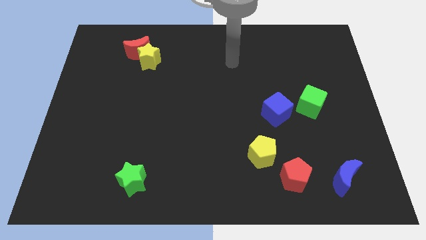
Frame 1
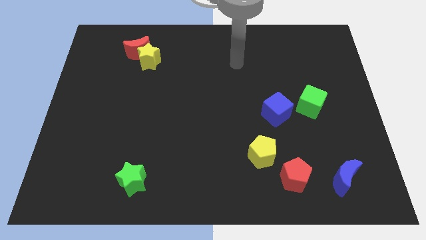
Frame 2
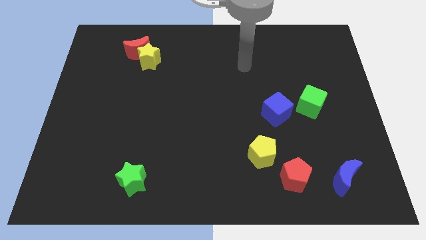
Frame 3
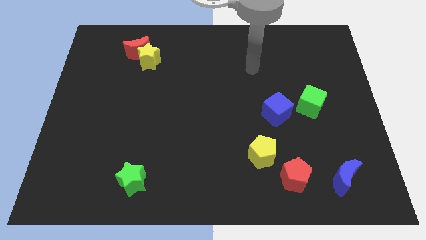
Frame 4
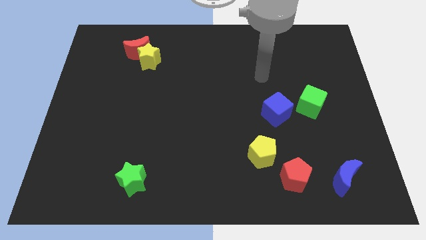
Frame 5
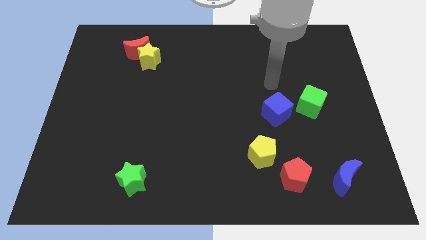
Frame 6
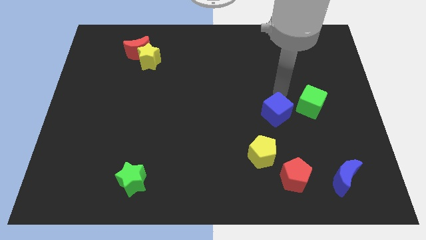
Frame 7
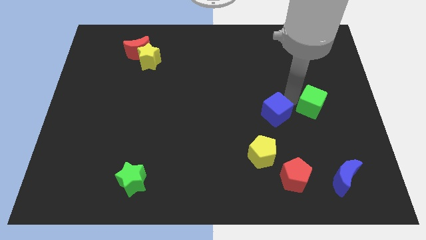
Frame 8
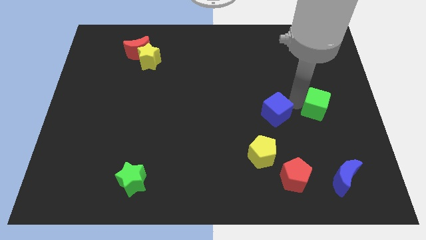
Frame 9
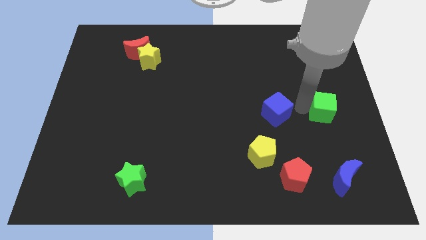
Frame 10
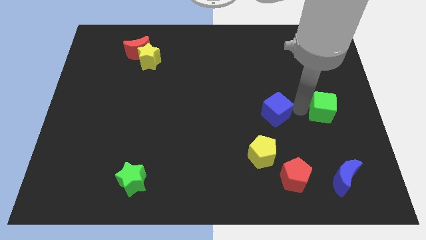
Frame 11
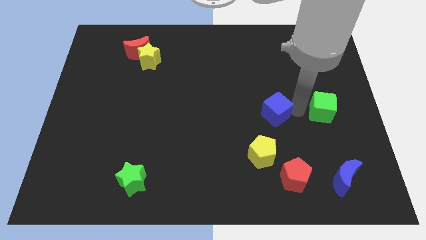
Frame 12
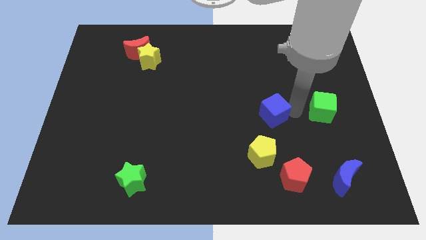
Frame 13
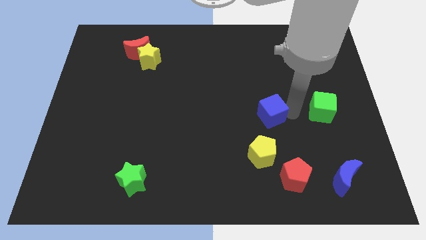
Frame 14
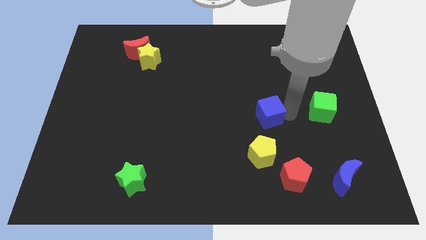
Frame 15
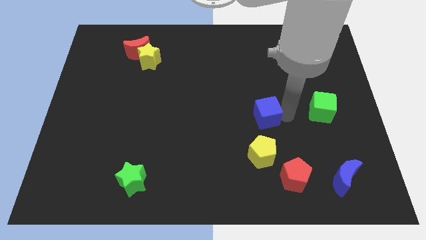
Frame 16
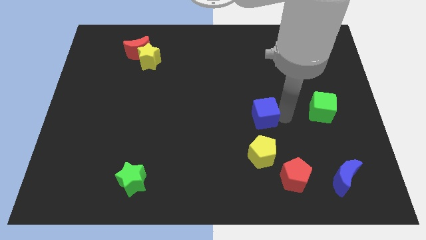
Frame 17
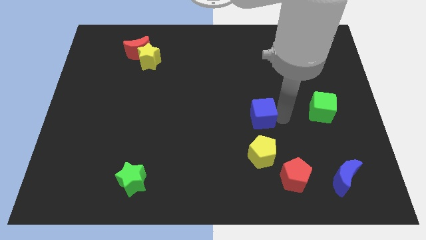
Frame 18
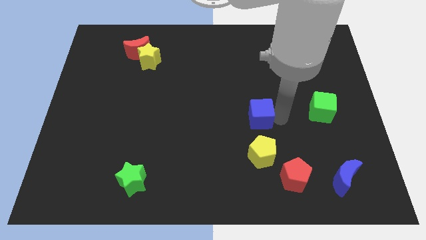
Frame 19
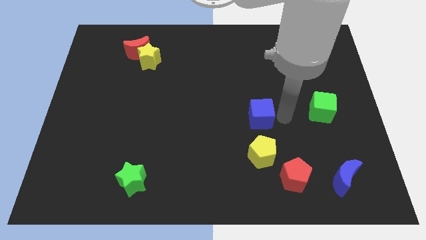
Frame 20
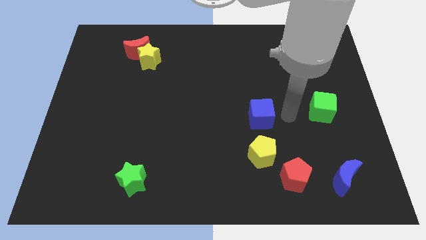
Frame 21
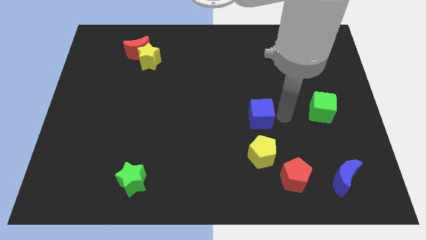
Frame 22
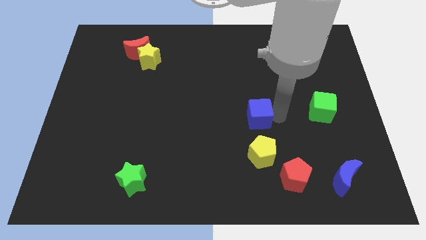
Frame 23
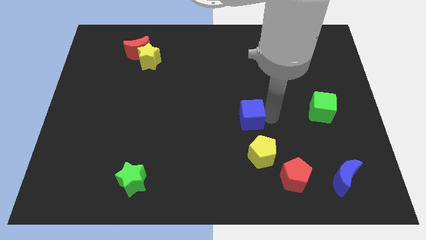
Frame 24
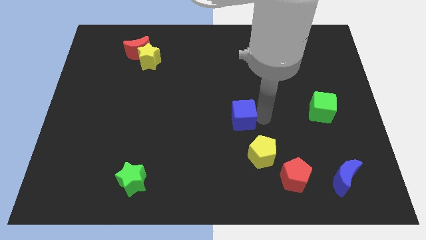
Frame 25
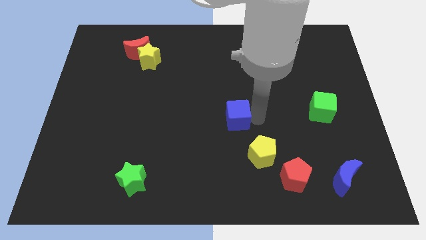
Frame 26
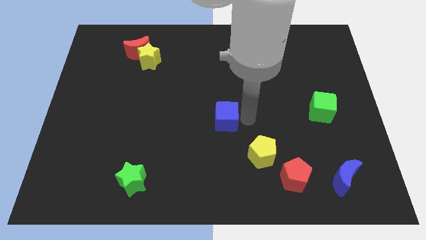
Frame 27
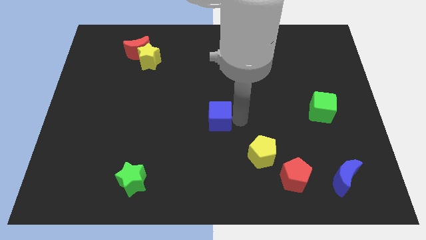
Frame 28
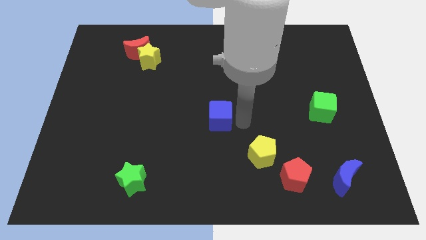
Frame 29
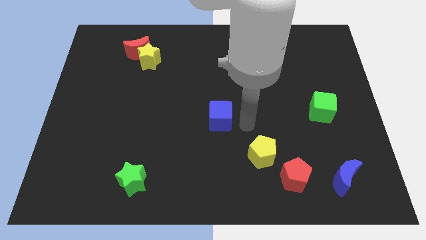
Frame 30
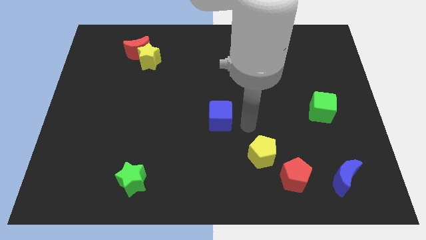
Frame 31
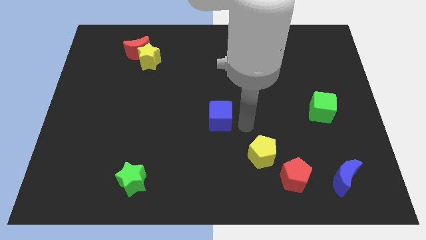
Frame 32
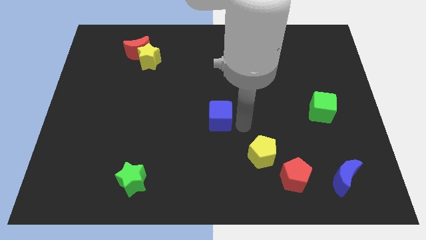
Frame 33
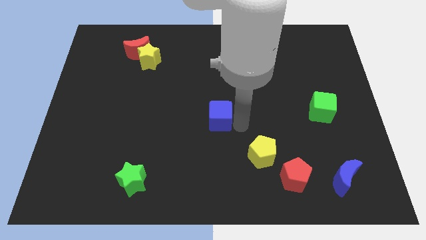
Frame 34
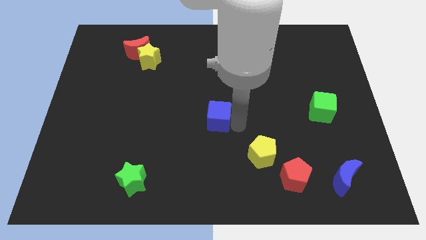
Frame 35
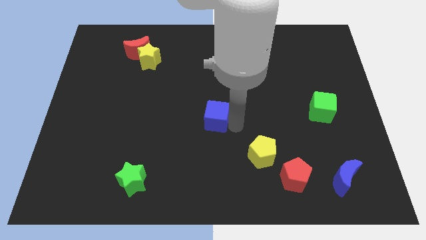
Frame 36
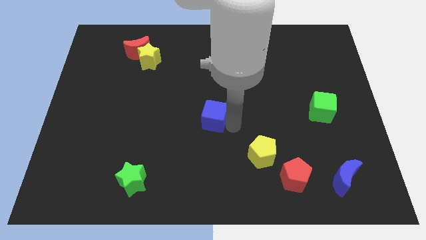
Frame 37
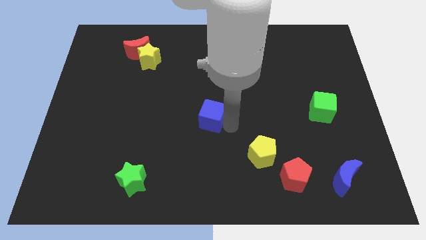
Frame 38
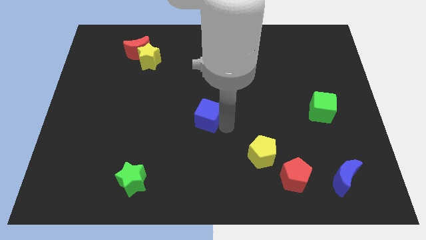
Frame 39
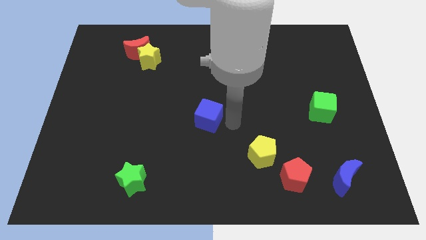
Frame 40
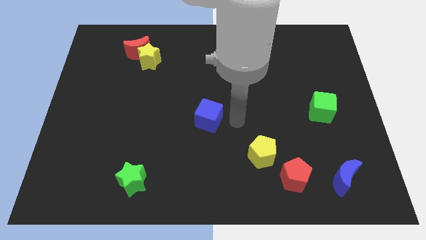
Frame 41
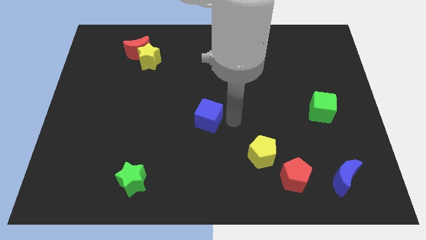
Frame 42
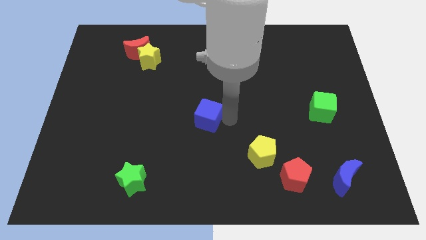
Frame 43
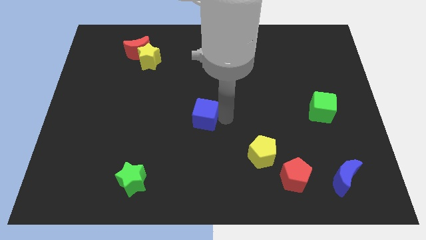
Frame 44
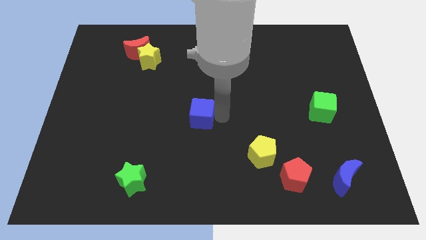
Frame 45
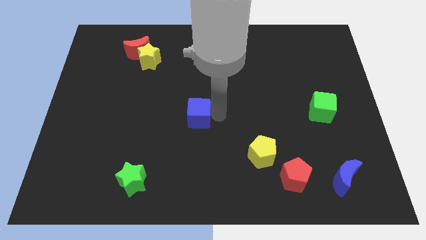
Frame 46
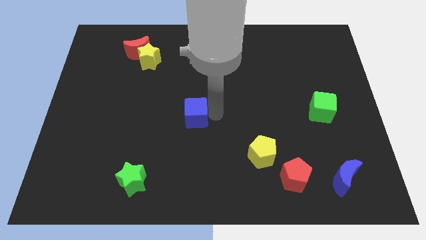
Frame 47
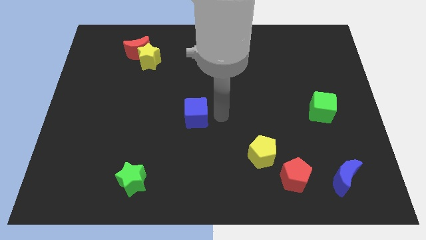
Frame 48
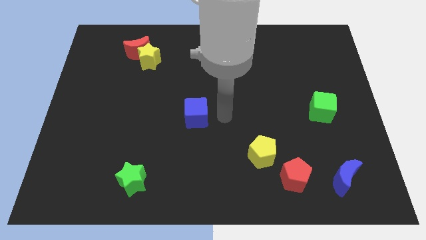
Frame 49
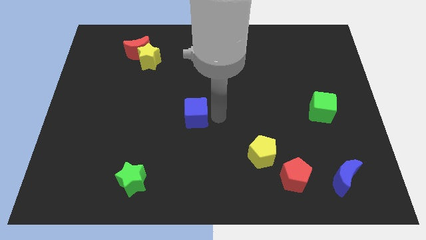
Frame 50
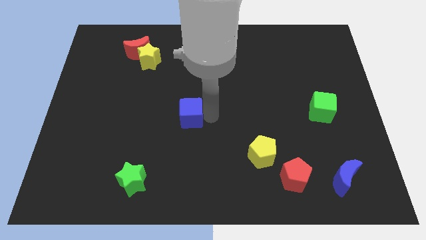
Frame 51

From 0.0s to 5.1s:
move the blue cube left

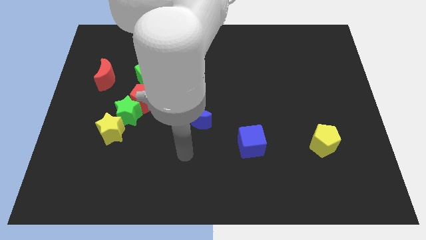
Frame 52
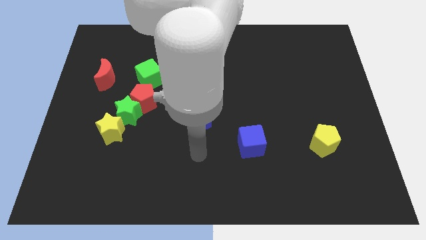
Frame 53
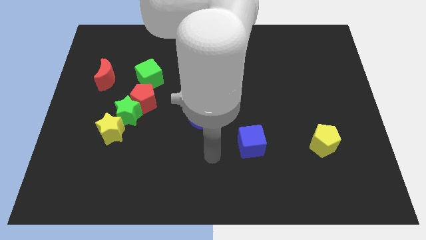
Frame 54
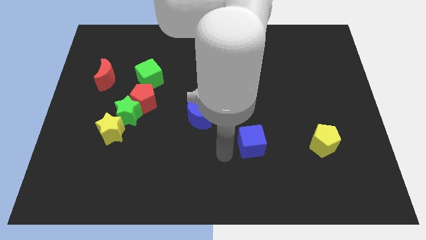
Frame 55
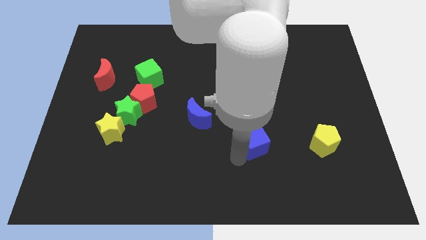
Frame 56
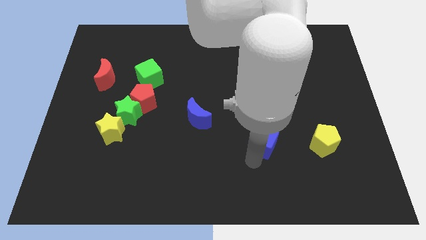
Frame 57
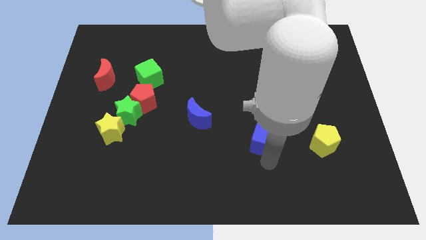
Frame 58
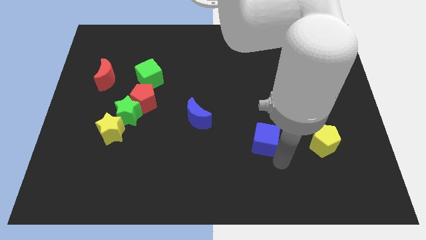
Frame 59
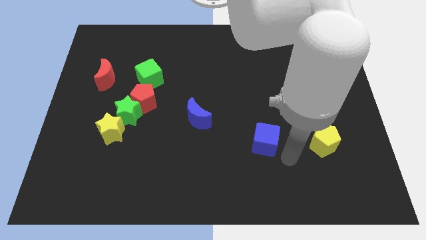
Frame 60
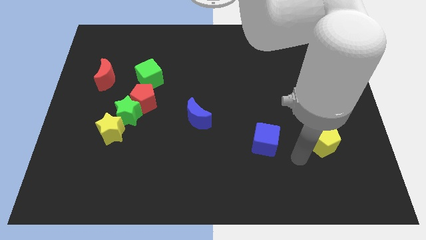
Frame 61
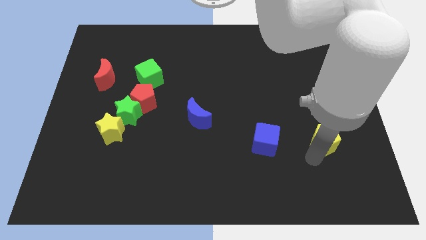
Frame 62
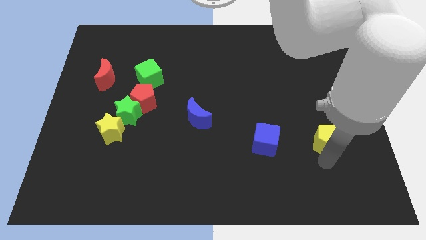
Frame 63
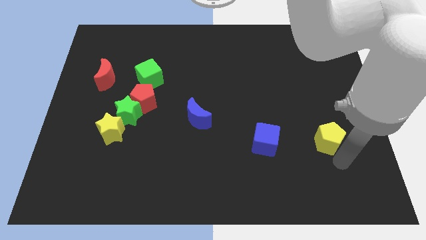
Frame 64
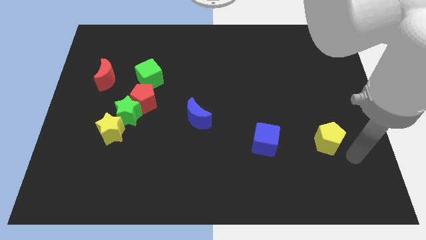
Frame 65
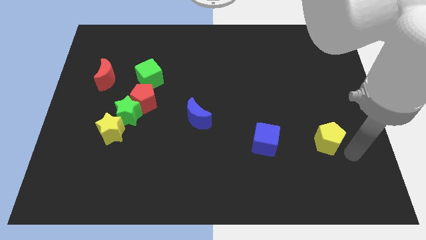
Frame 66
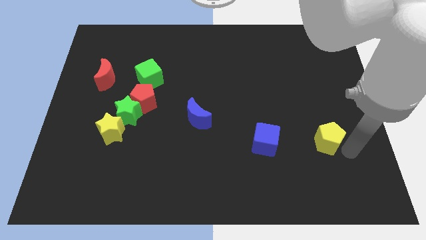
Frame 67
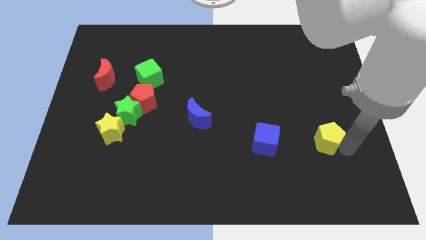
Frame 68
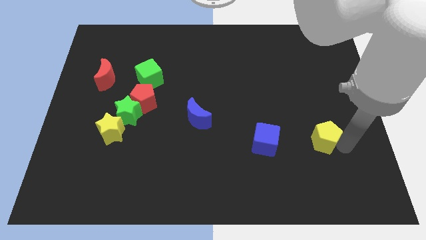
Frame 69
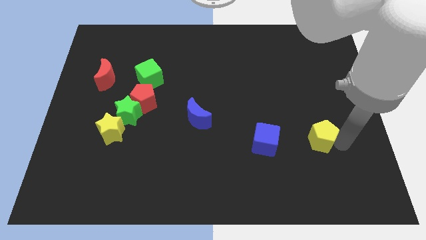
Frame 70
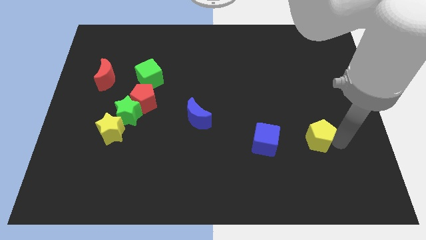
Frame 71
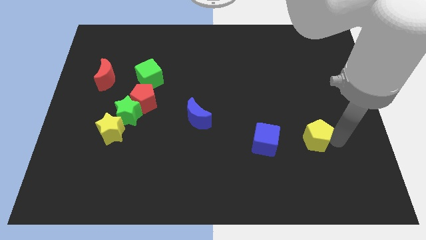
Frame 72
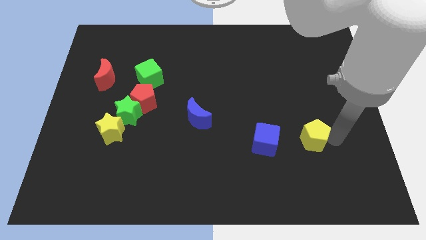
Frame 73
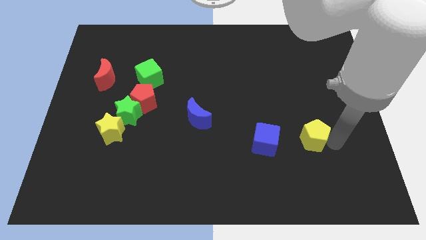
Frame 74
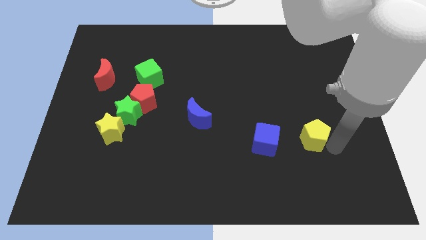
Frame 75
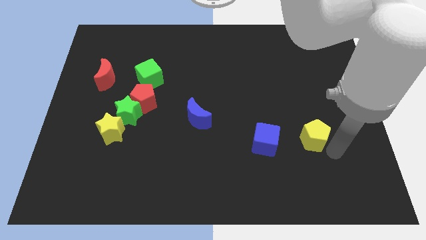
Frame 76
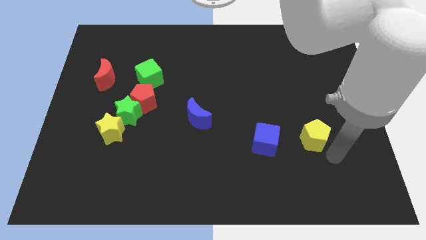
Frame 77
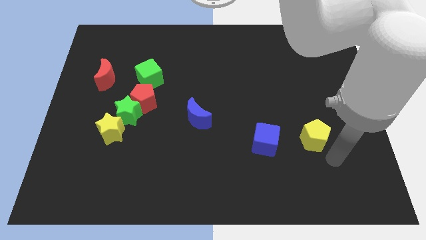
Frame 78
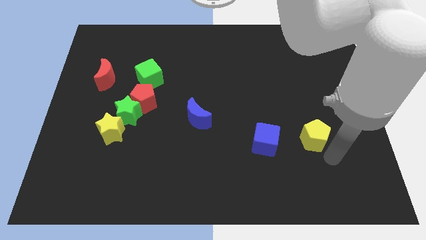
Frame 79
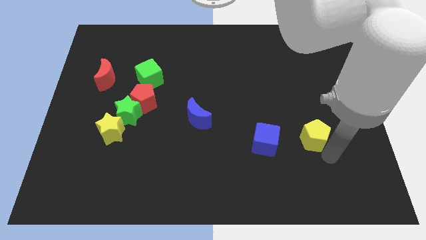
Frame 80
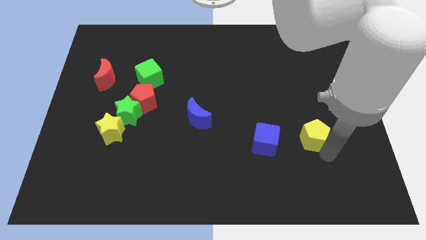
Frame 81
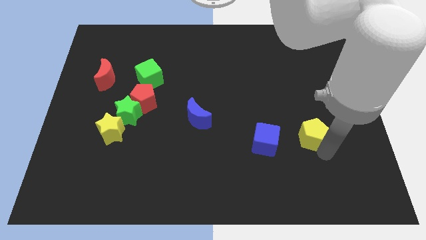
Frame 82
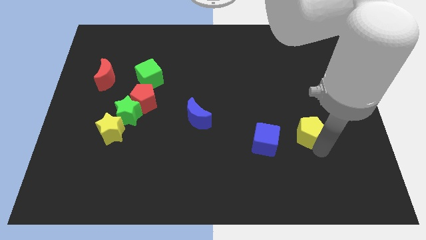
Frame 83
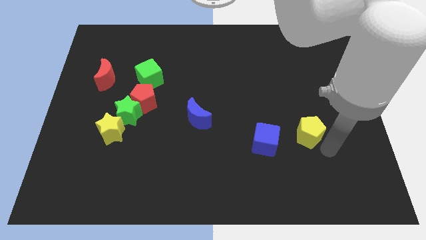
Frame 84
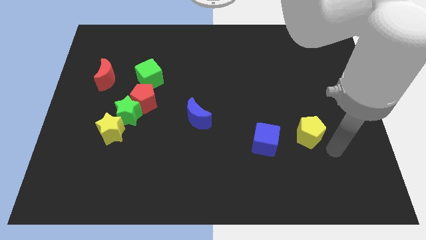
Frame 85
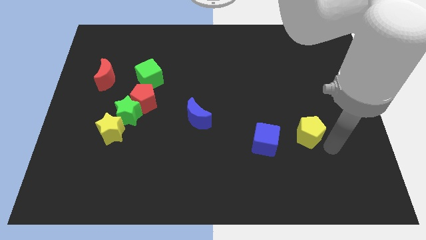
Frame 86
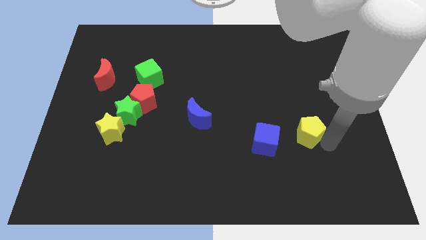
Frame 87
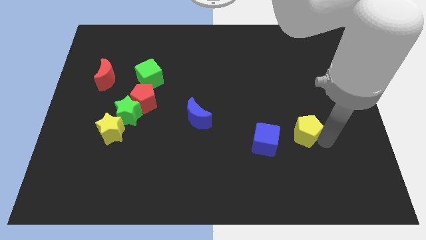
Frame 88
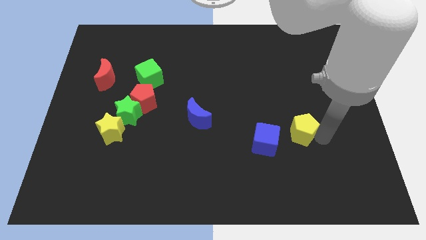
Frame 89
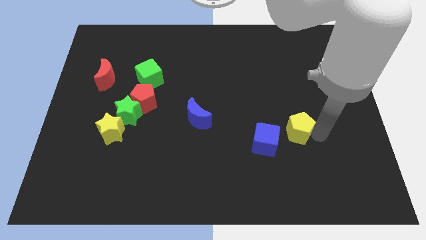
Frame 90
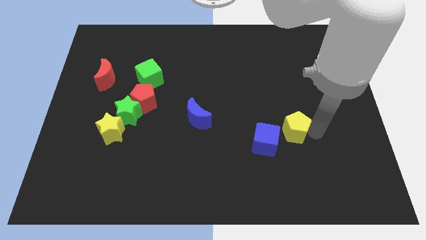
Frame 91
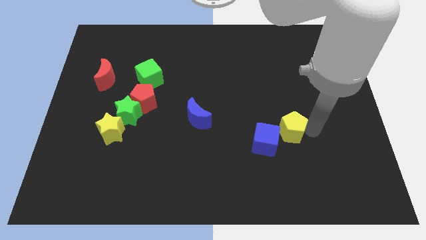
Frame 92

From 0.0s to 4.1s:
push the yellow pentagon slightly up and then left
